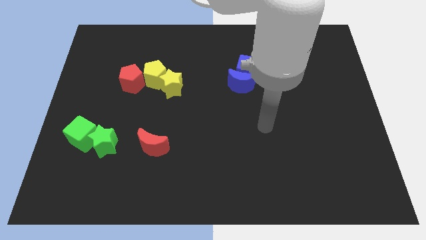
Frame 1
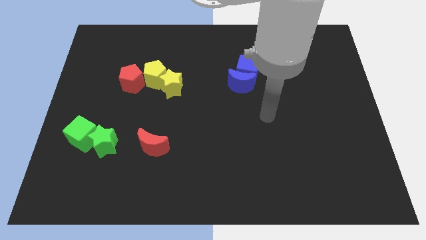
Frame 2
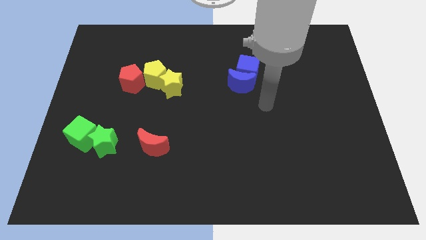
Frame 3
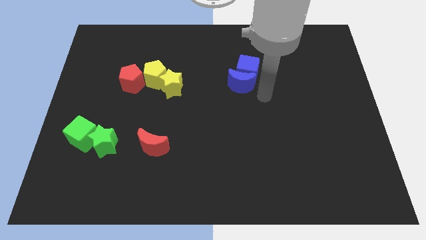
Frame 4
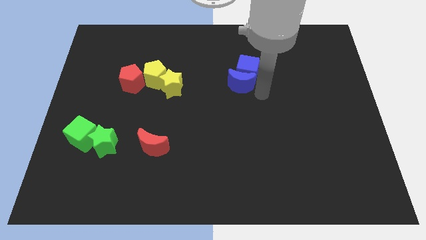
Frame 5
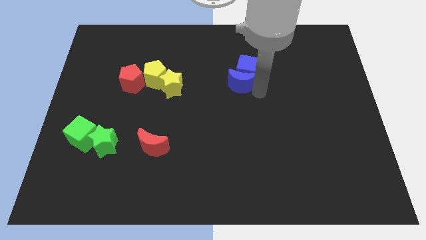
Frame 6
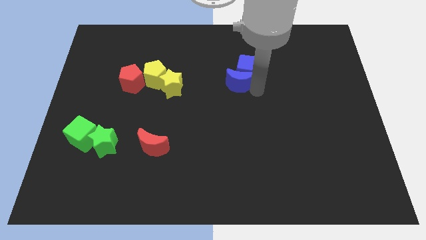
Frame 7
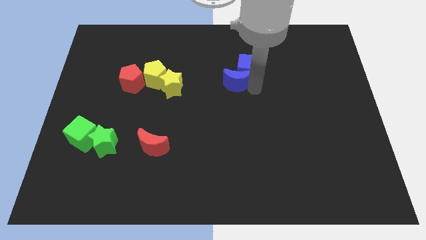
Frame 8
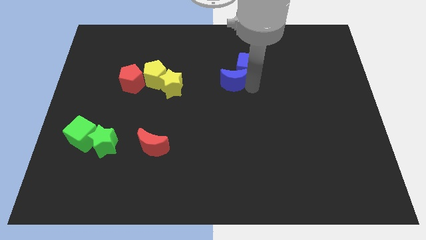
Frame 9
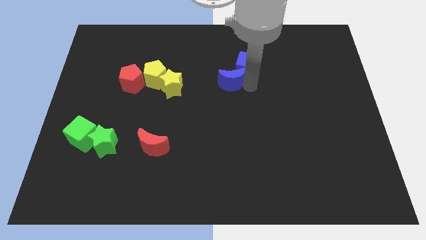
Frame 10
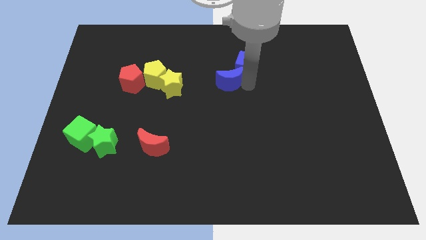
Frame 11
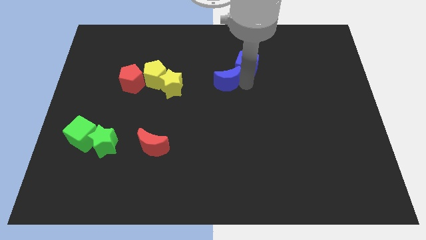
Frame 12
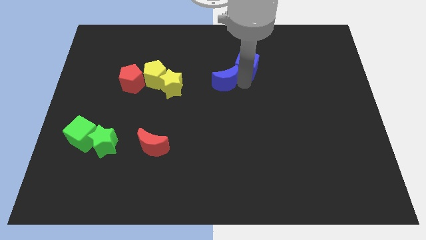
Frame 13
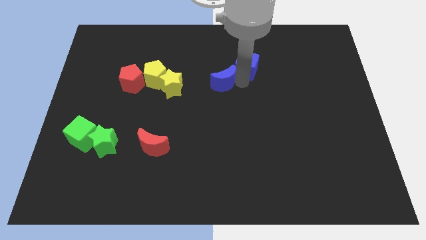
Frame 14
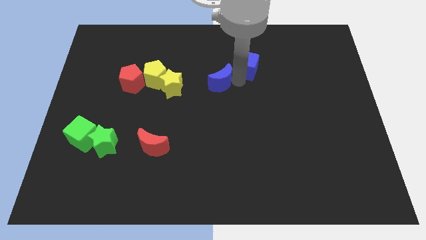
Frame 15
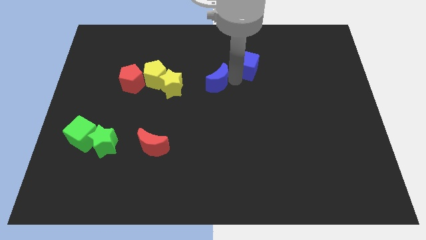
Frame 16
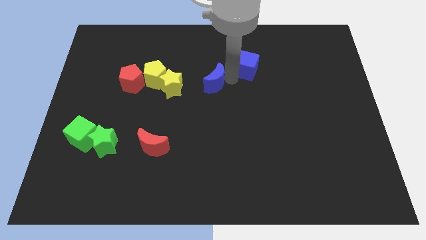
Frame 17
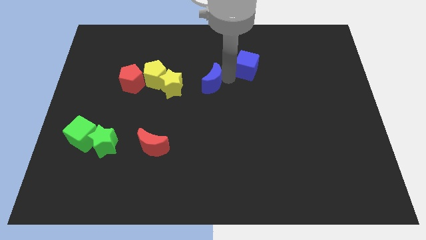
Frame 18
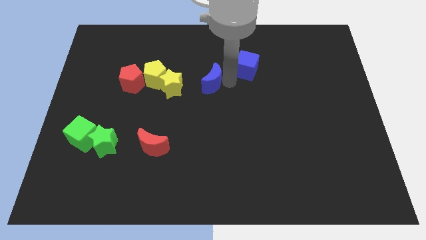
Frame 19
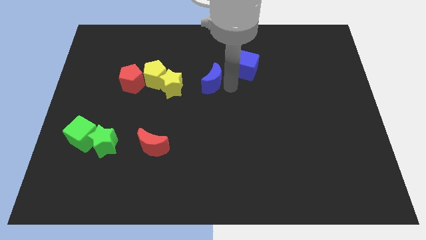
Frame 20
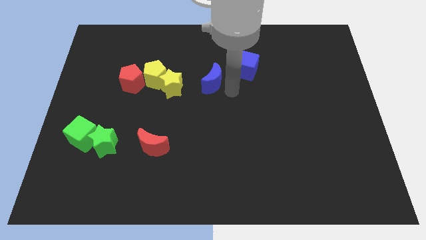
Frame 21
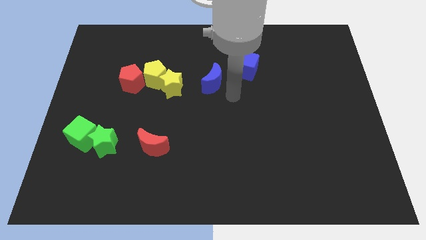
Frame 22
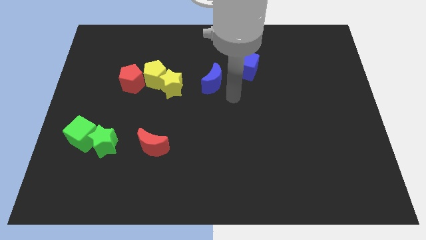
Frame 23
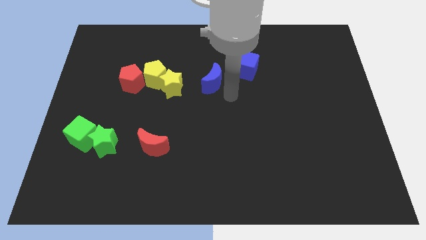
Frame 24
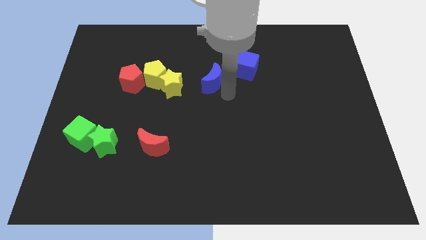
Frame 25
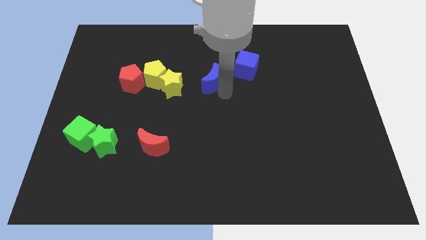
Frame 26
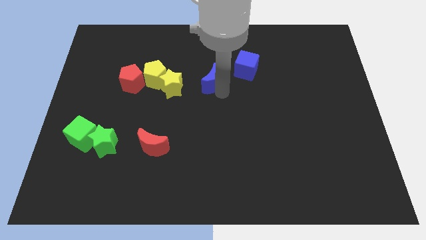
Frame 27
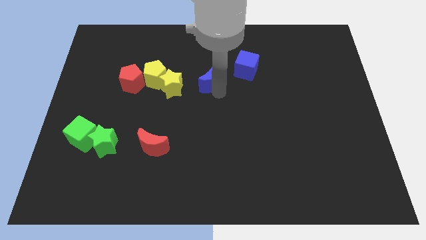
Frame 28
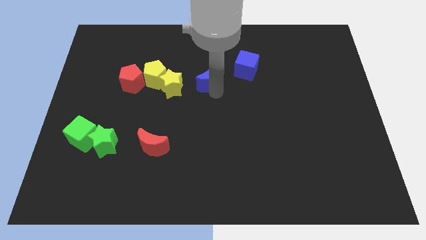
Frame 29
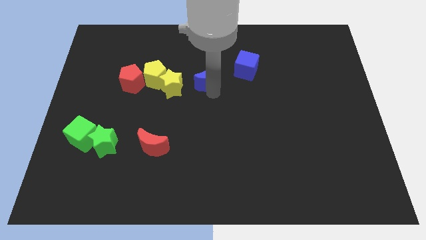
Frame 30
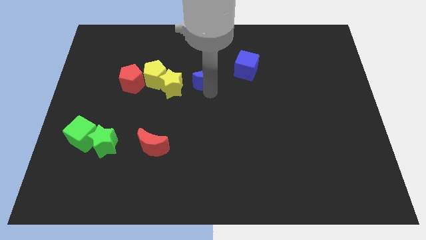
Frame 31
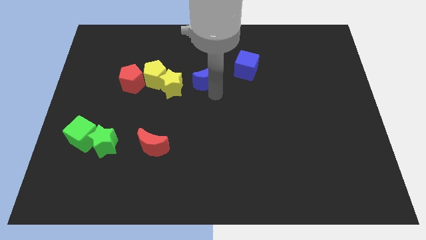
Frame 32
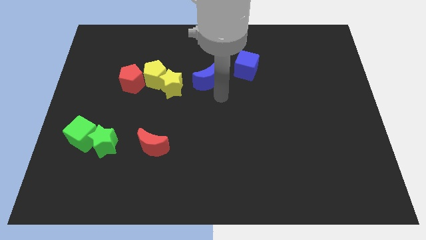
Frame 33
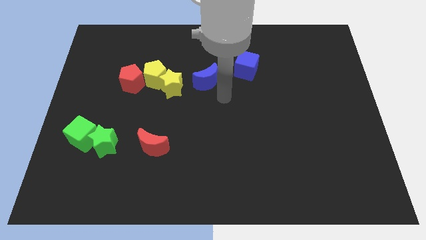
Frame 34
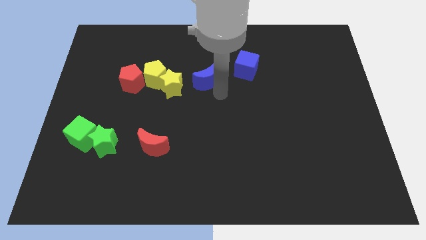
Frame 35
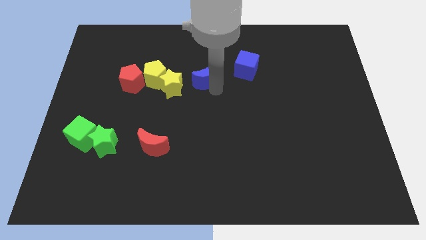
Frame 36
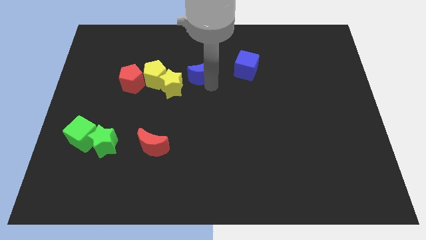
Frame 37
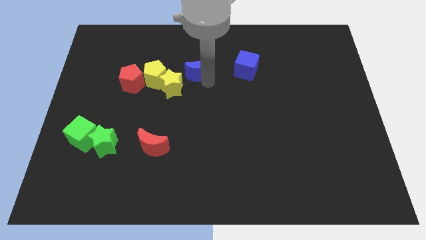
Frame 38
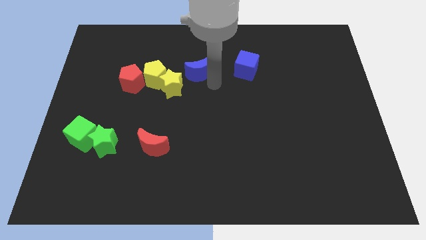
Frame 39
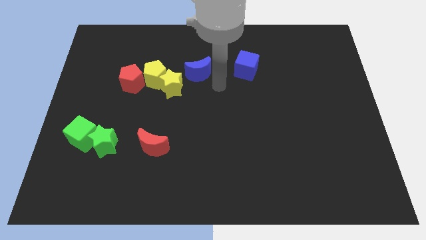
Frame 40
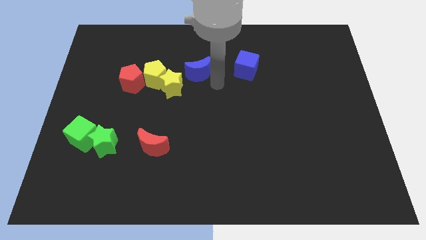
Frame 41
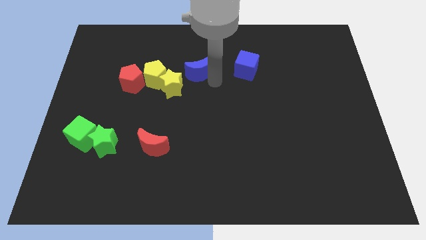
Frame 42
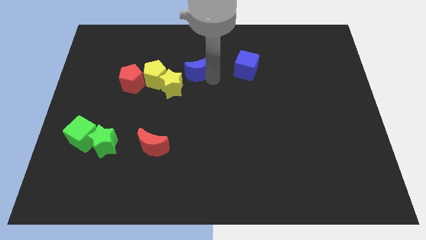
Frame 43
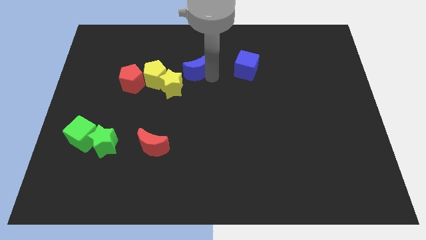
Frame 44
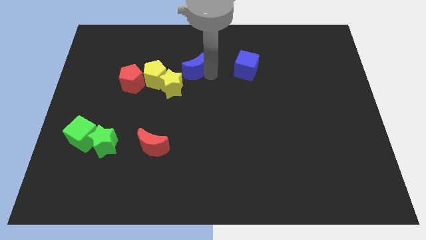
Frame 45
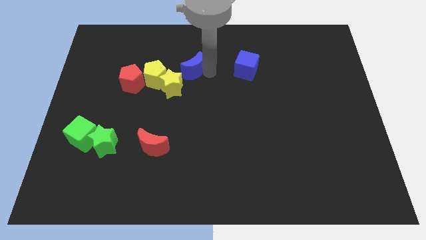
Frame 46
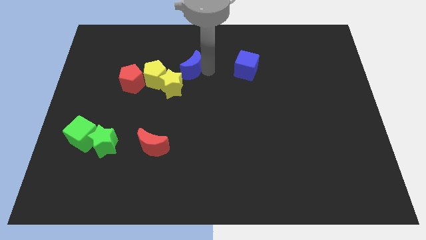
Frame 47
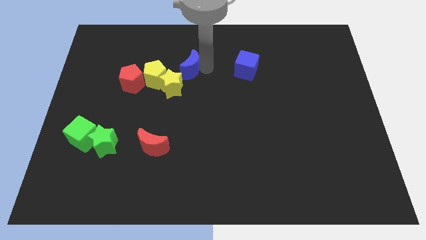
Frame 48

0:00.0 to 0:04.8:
move the blue moon to the top side of the yellow star

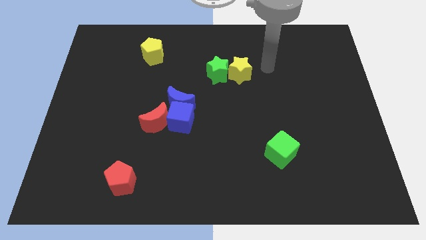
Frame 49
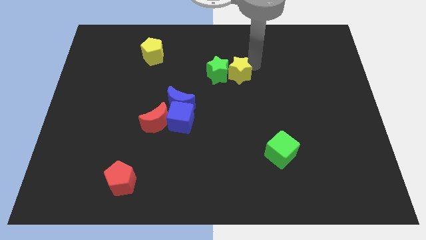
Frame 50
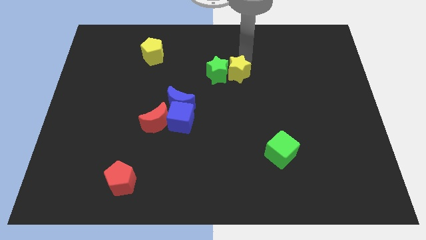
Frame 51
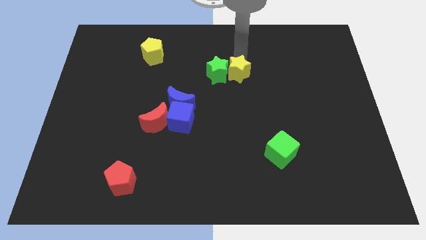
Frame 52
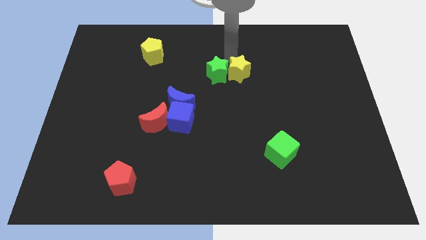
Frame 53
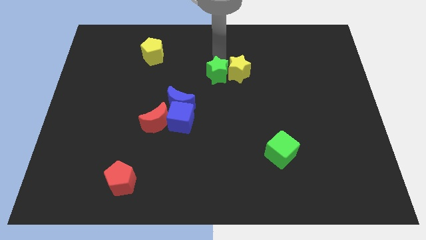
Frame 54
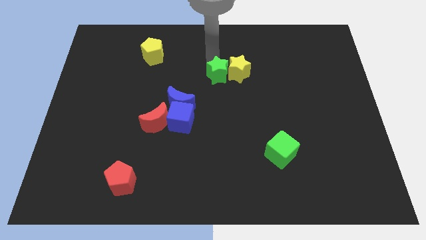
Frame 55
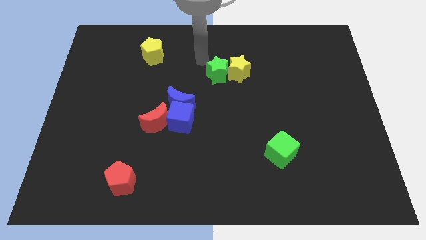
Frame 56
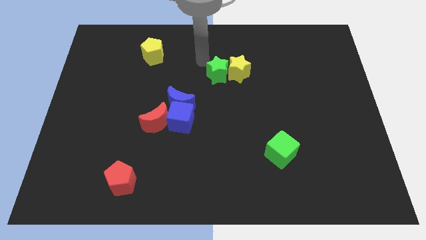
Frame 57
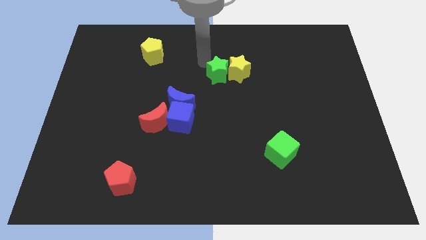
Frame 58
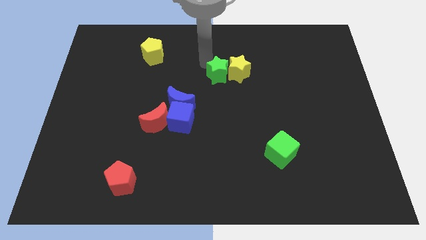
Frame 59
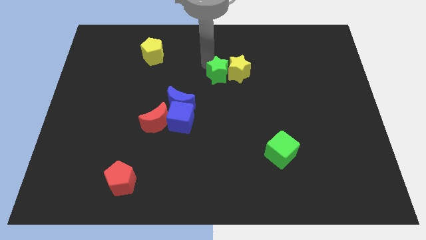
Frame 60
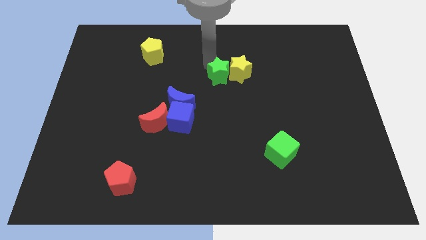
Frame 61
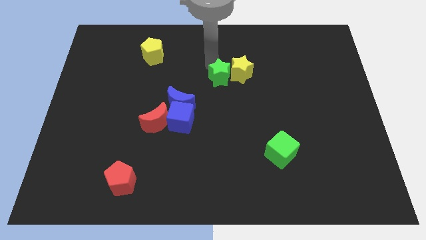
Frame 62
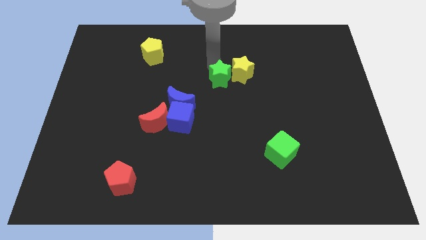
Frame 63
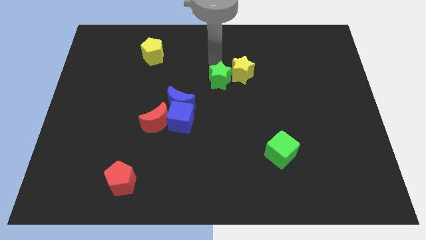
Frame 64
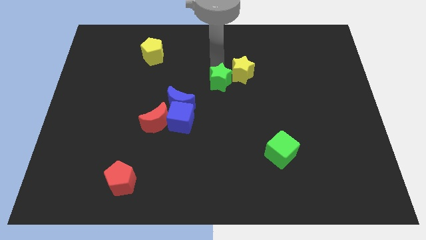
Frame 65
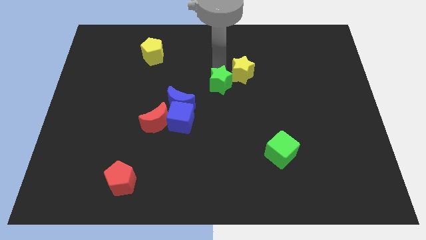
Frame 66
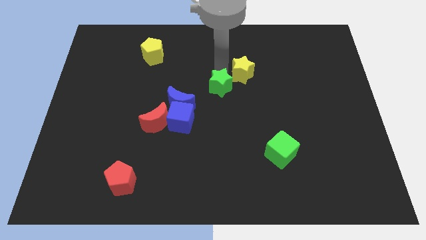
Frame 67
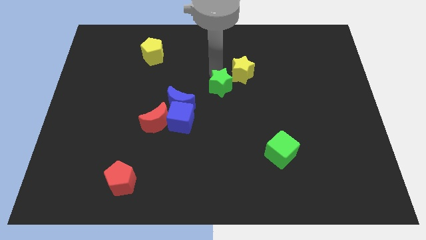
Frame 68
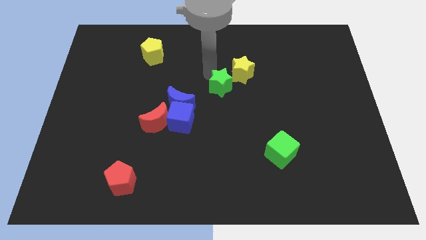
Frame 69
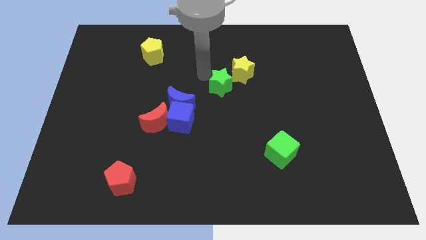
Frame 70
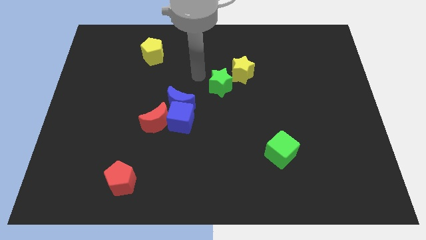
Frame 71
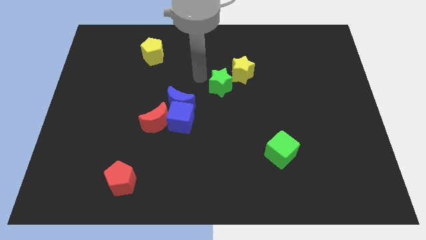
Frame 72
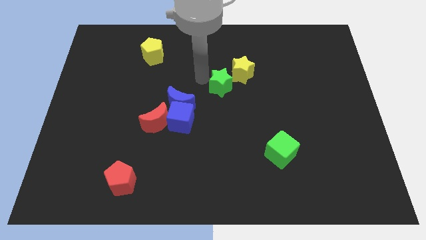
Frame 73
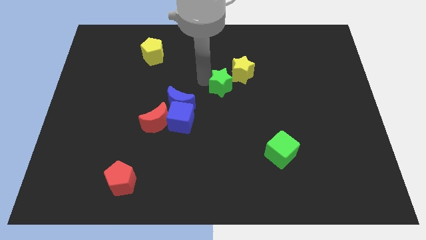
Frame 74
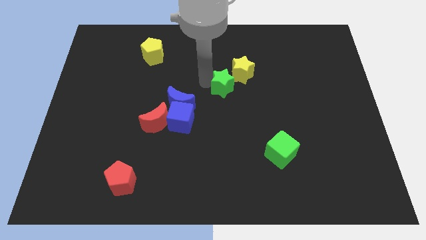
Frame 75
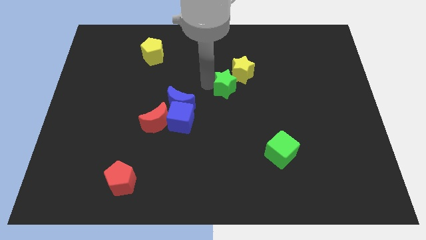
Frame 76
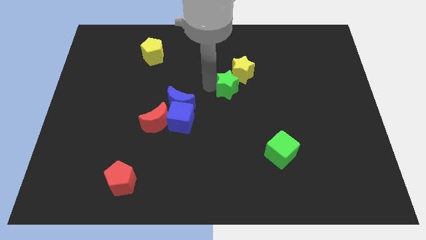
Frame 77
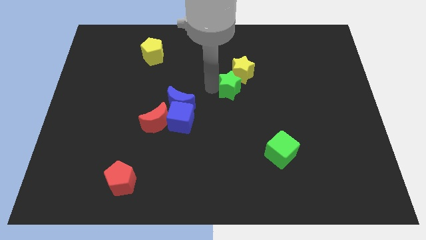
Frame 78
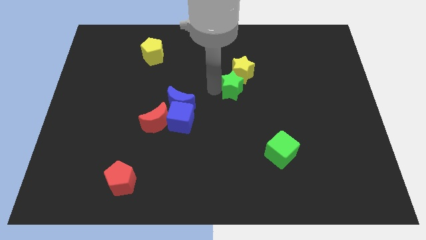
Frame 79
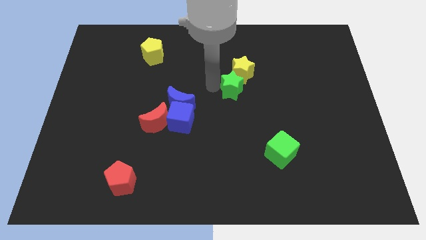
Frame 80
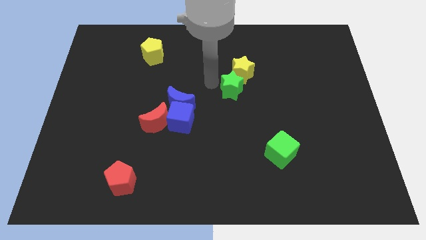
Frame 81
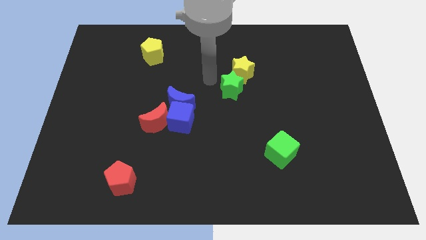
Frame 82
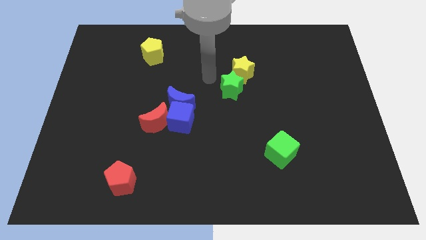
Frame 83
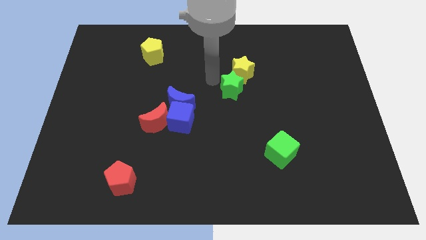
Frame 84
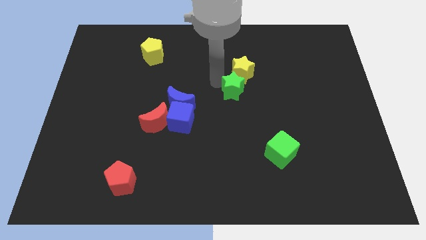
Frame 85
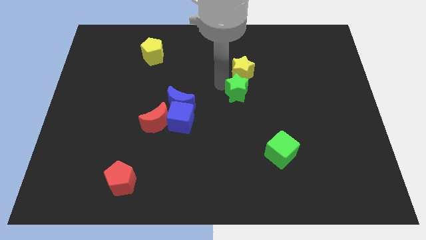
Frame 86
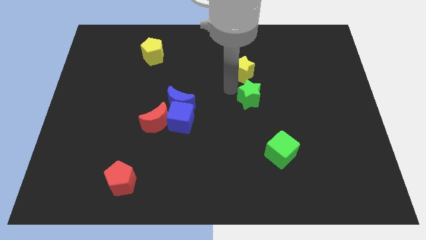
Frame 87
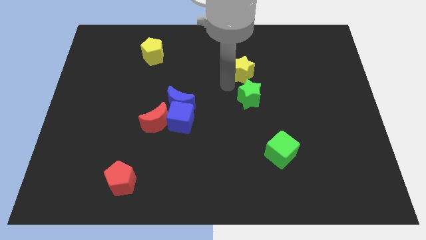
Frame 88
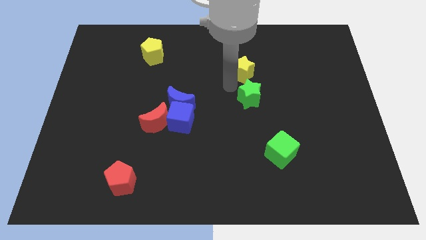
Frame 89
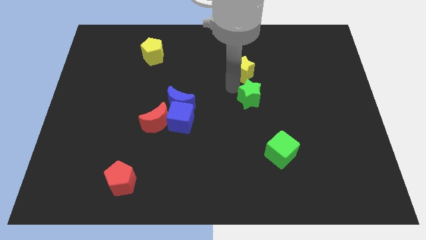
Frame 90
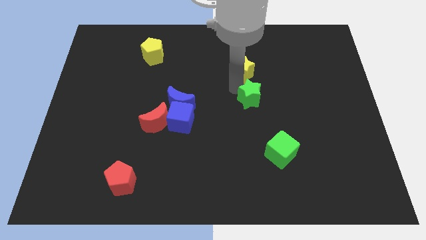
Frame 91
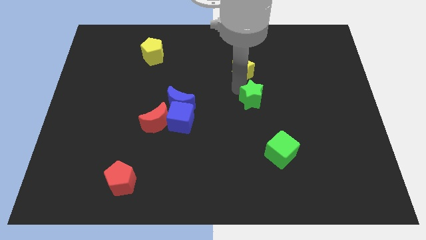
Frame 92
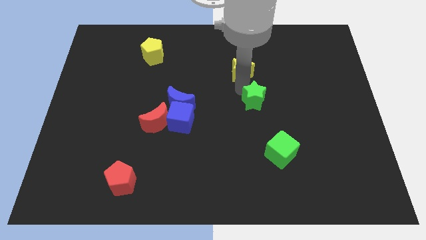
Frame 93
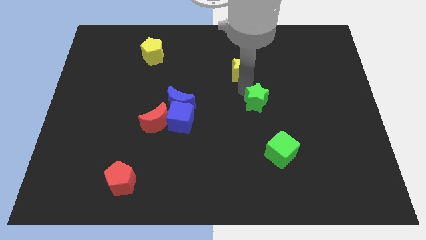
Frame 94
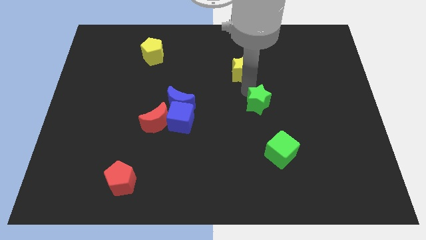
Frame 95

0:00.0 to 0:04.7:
put the green star to the top of the green cube
